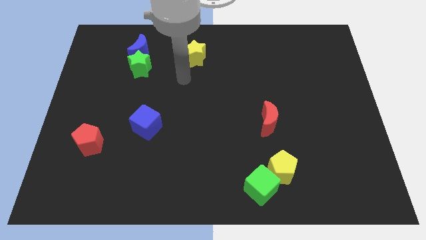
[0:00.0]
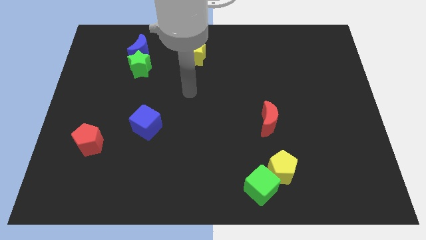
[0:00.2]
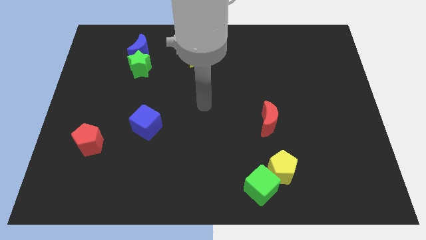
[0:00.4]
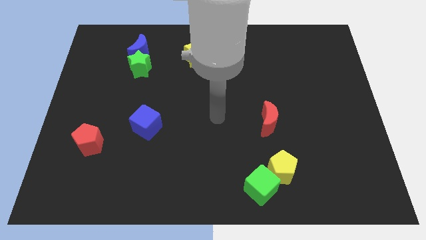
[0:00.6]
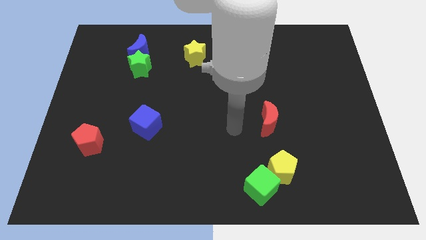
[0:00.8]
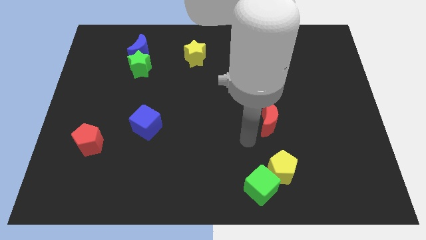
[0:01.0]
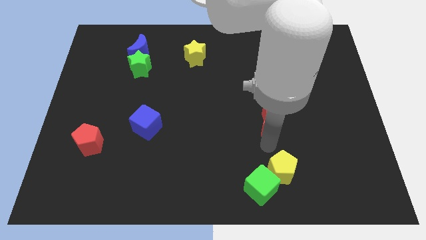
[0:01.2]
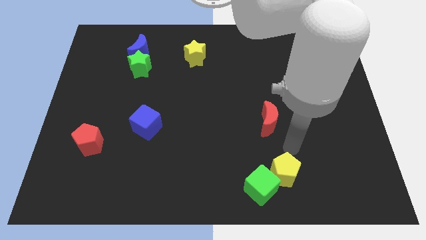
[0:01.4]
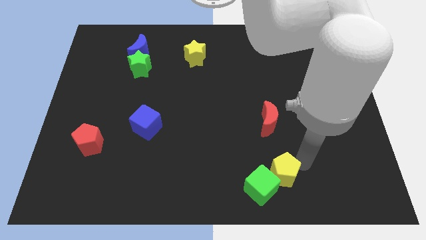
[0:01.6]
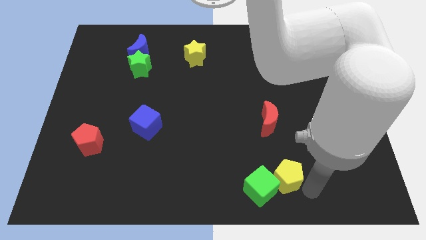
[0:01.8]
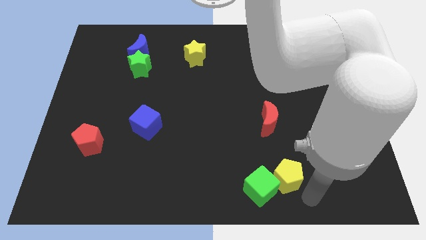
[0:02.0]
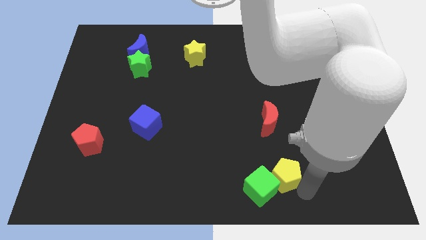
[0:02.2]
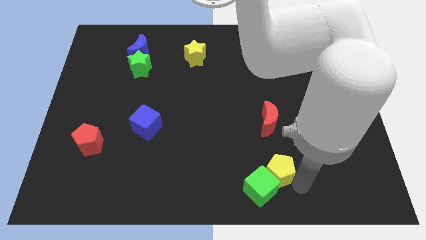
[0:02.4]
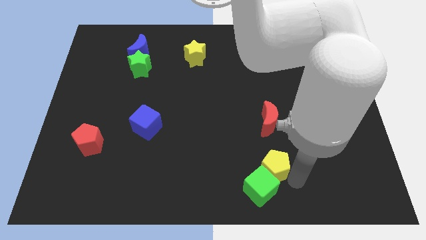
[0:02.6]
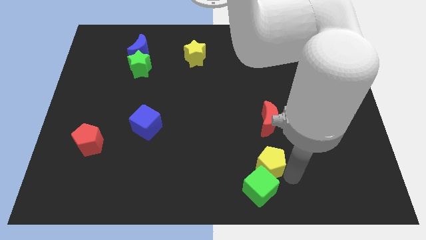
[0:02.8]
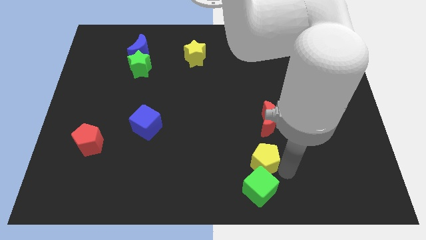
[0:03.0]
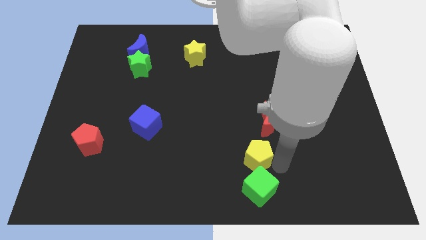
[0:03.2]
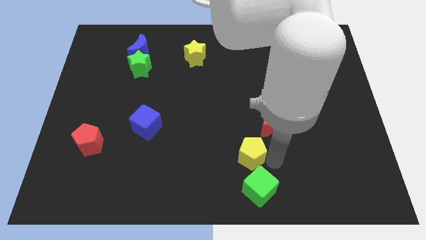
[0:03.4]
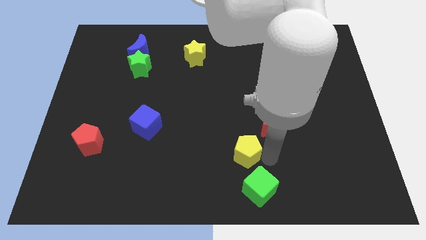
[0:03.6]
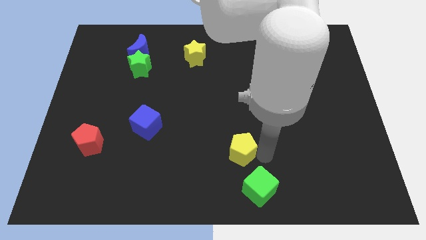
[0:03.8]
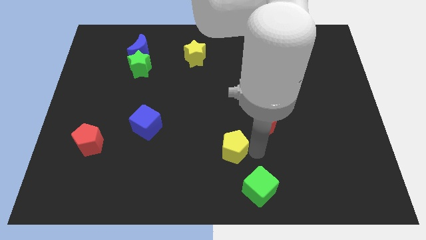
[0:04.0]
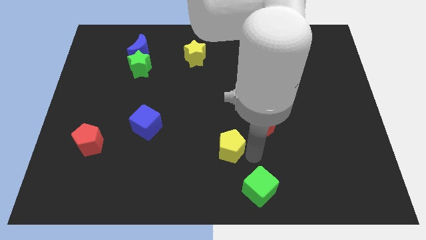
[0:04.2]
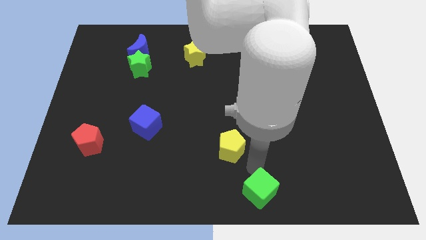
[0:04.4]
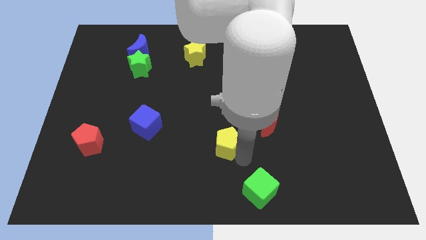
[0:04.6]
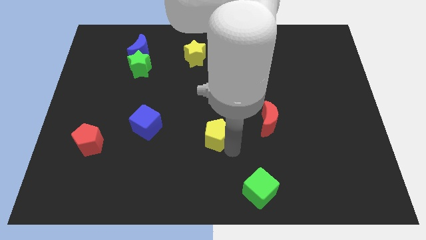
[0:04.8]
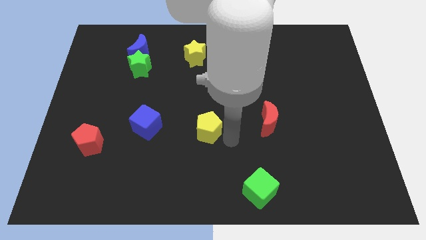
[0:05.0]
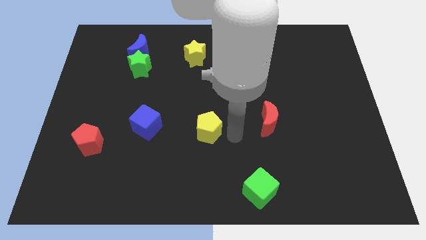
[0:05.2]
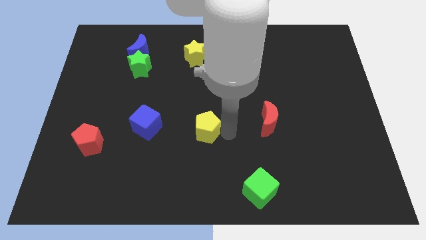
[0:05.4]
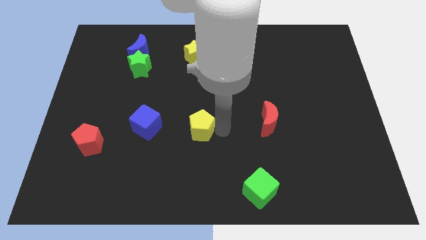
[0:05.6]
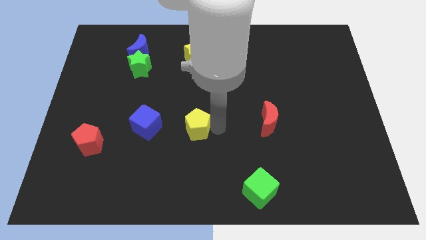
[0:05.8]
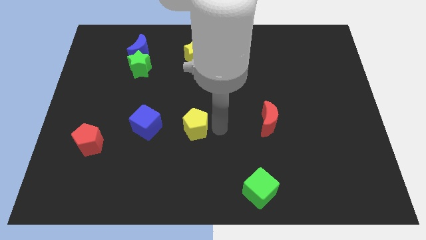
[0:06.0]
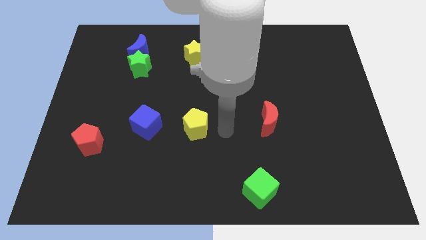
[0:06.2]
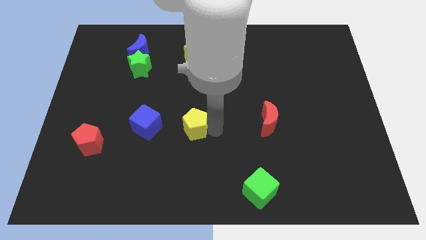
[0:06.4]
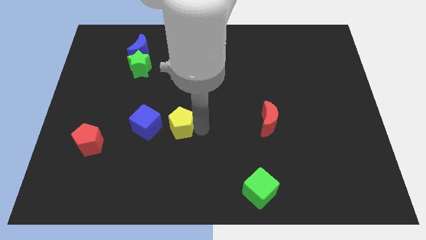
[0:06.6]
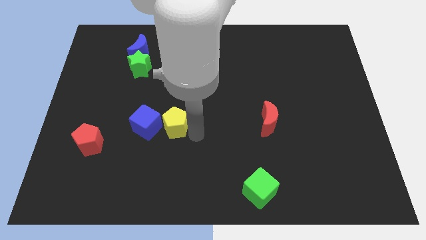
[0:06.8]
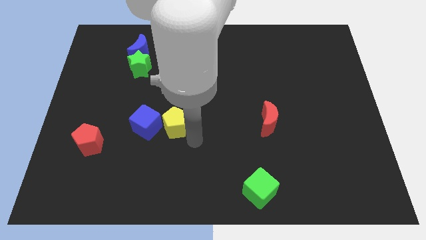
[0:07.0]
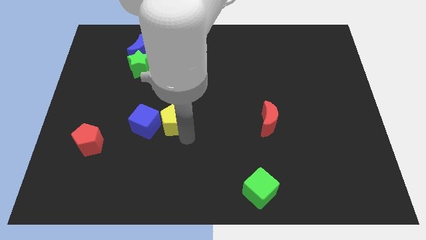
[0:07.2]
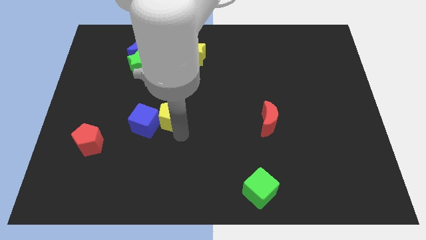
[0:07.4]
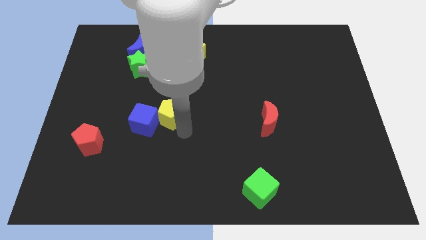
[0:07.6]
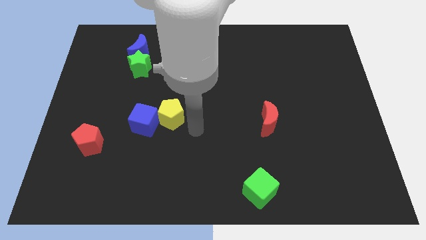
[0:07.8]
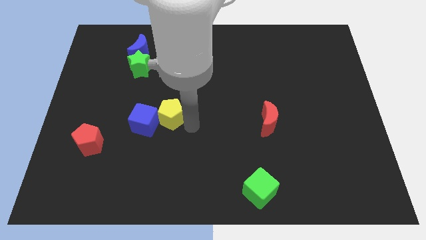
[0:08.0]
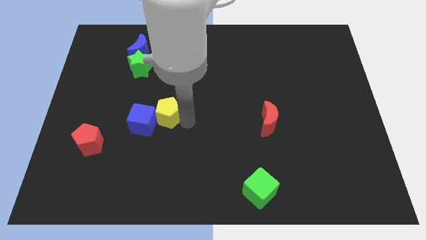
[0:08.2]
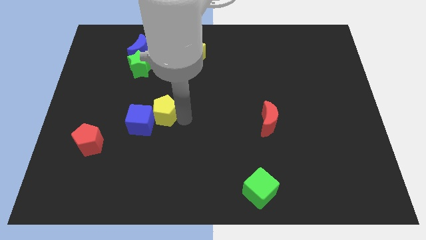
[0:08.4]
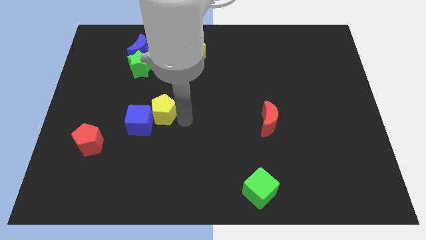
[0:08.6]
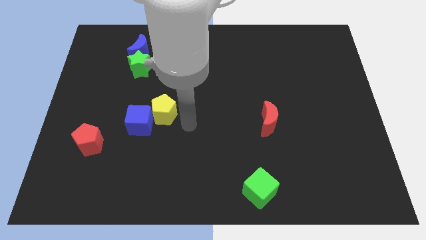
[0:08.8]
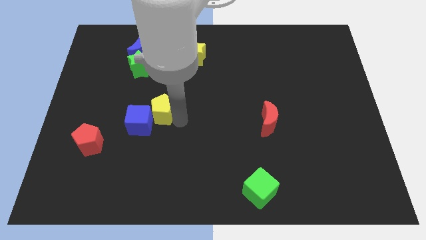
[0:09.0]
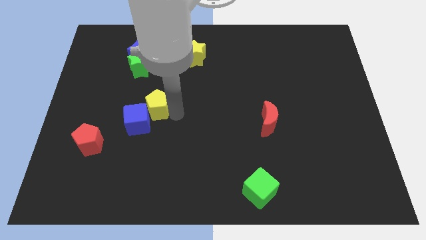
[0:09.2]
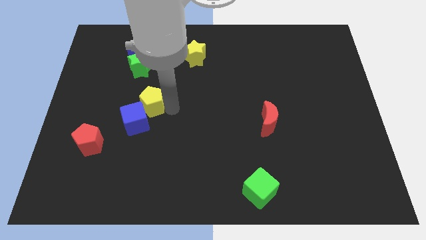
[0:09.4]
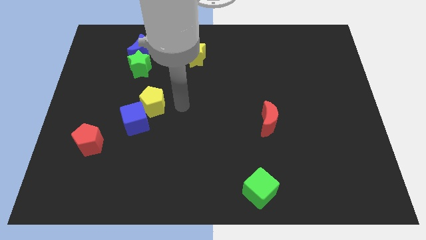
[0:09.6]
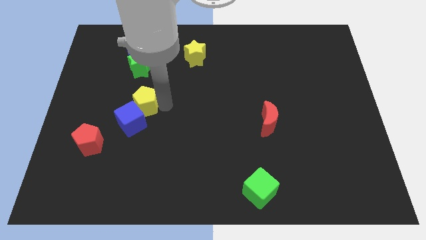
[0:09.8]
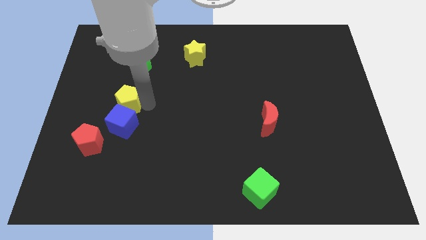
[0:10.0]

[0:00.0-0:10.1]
move the yellow pentagon to the top left side of the blue cube

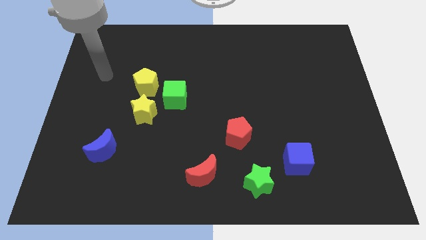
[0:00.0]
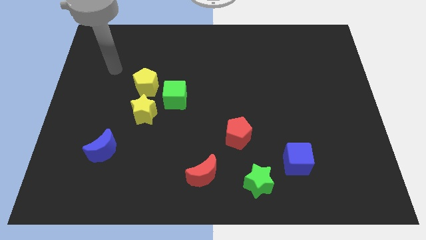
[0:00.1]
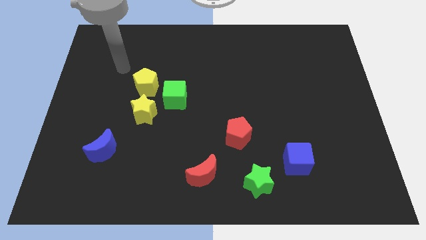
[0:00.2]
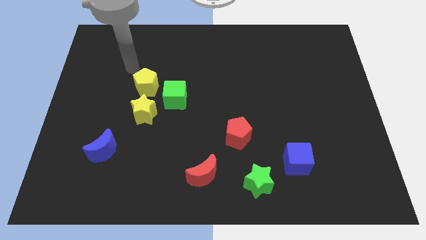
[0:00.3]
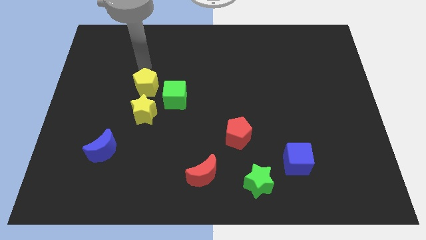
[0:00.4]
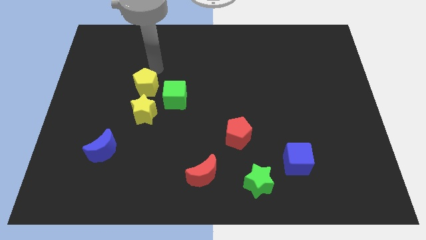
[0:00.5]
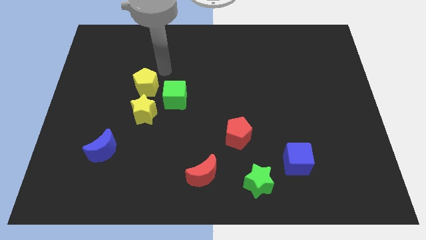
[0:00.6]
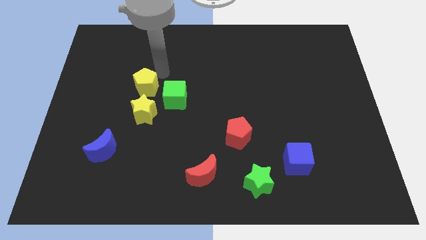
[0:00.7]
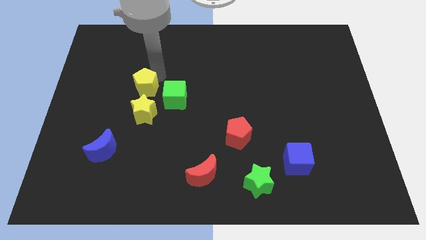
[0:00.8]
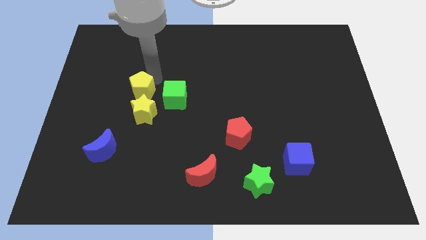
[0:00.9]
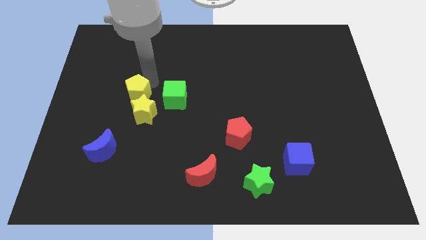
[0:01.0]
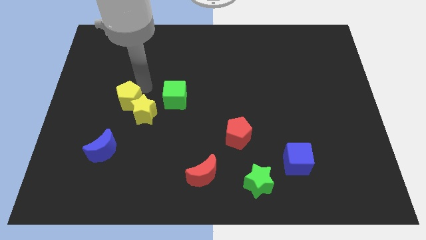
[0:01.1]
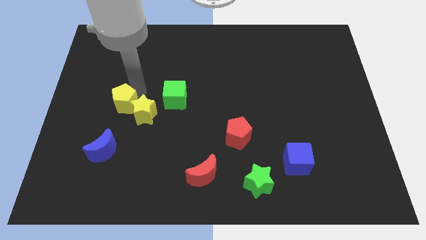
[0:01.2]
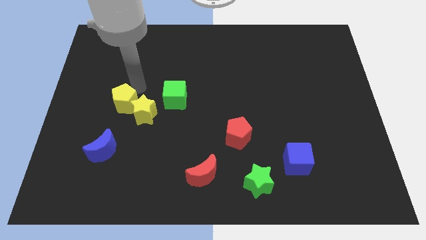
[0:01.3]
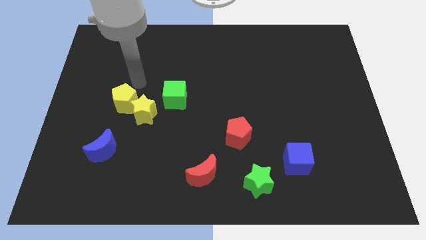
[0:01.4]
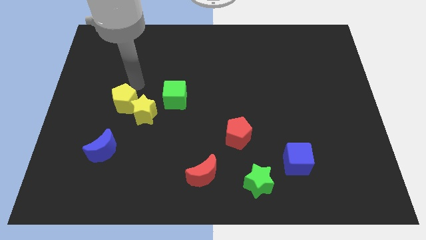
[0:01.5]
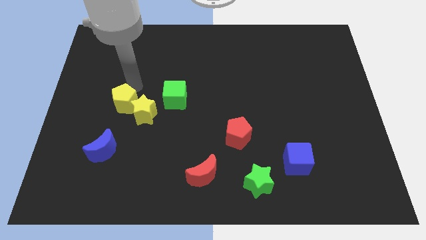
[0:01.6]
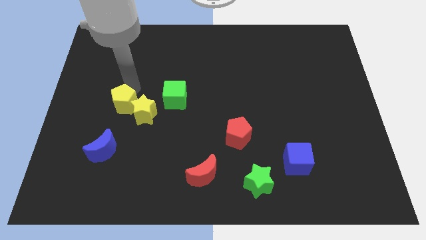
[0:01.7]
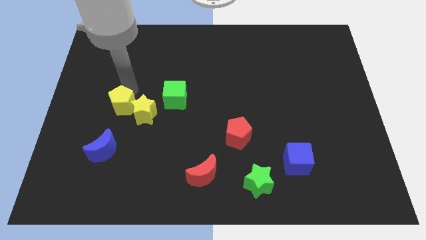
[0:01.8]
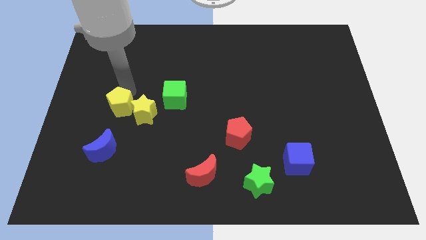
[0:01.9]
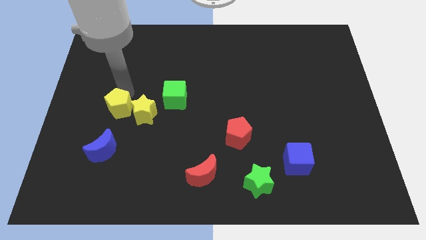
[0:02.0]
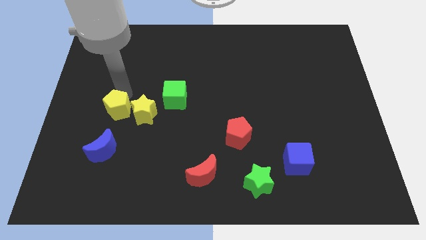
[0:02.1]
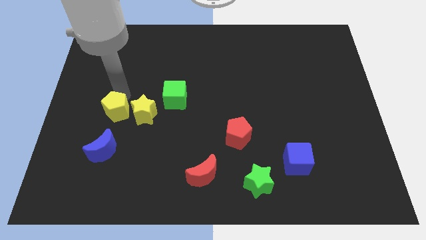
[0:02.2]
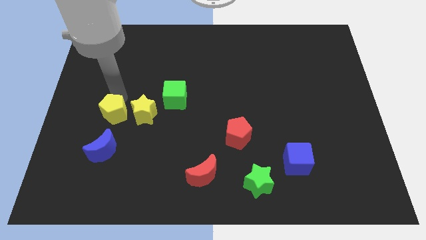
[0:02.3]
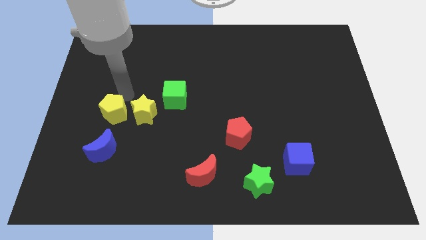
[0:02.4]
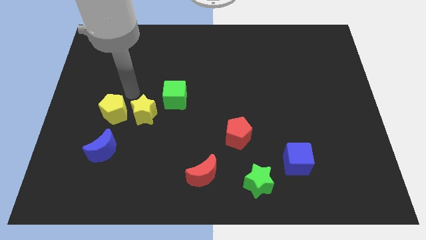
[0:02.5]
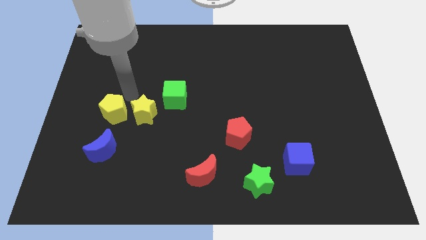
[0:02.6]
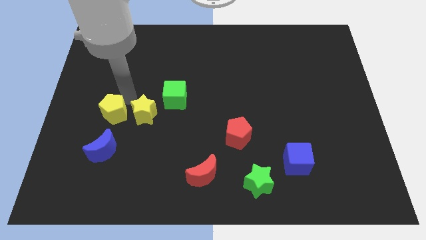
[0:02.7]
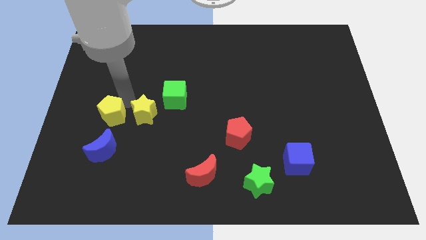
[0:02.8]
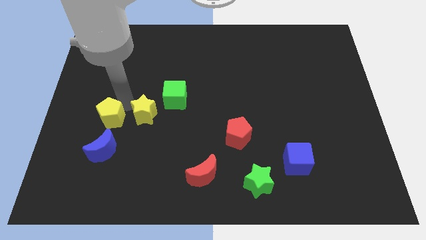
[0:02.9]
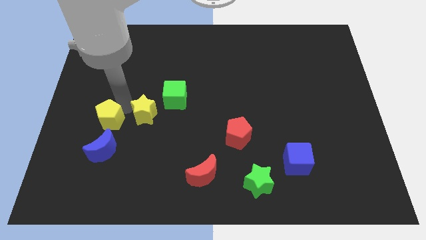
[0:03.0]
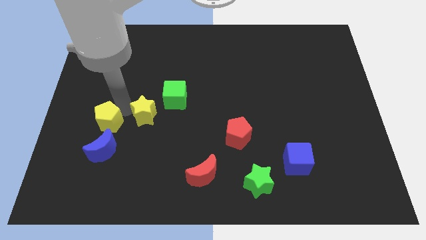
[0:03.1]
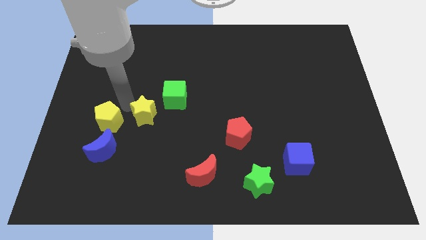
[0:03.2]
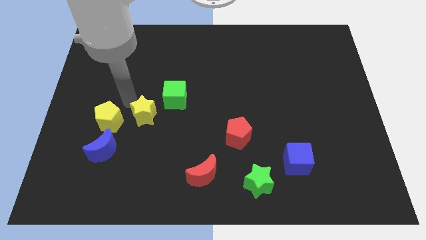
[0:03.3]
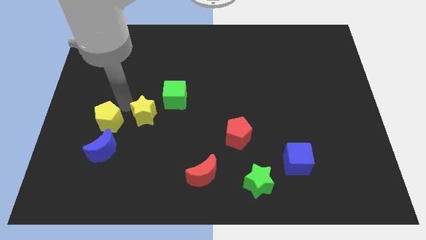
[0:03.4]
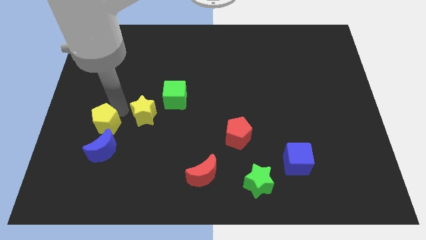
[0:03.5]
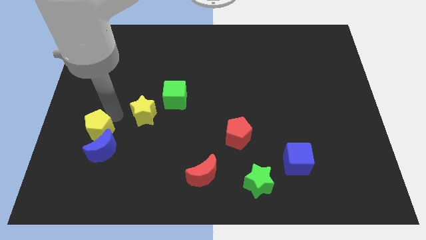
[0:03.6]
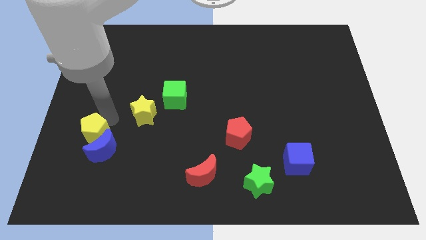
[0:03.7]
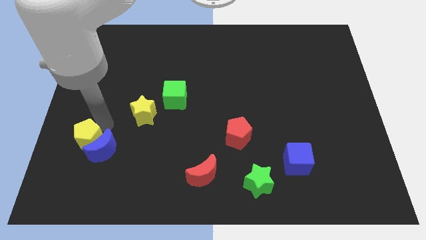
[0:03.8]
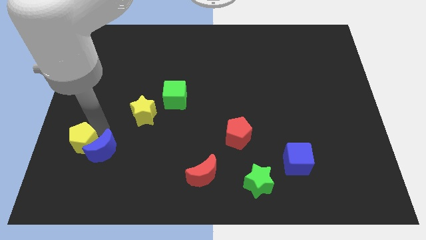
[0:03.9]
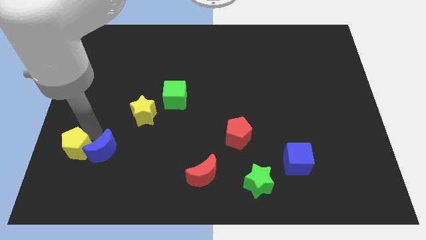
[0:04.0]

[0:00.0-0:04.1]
push the yellow pentagon diagonally down and to the left of the blue moon
